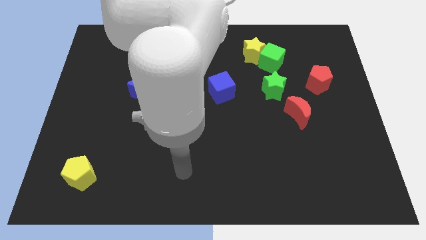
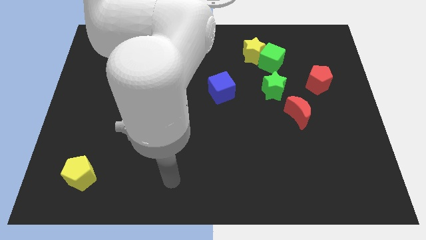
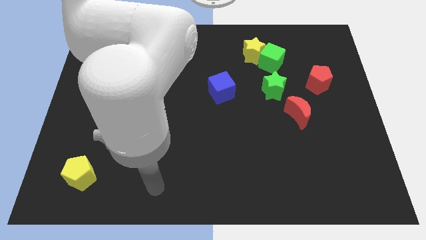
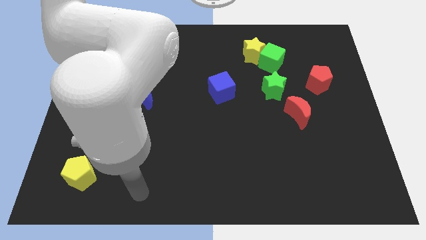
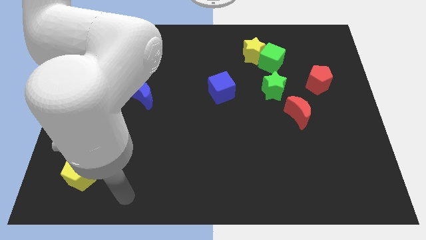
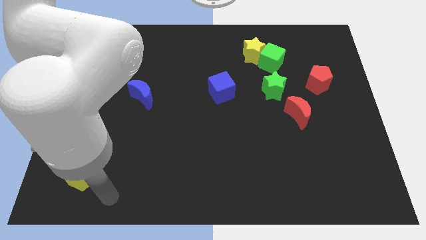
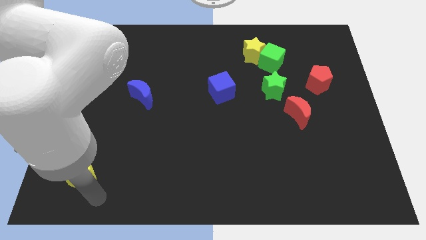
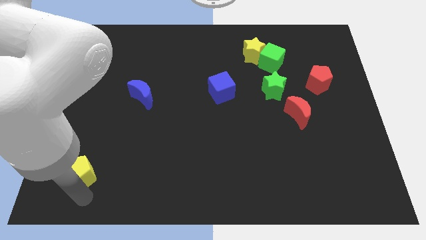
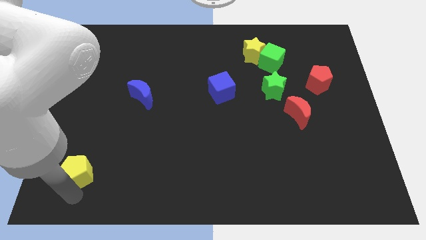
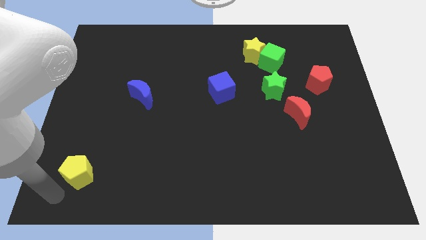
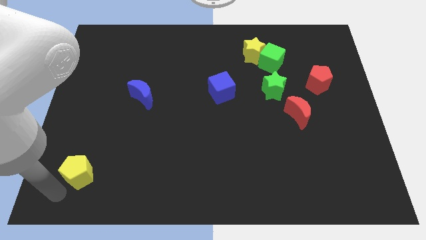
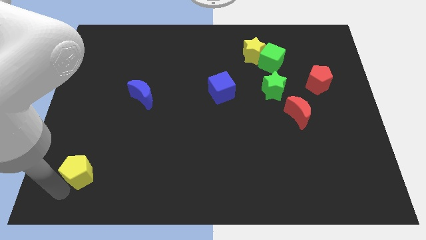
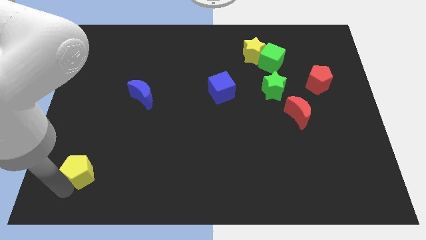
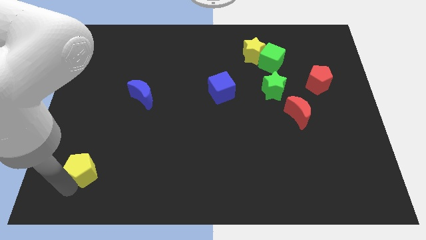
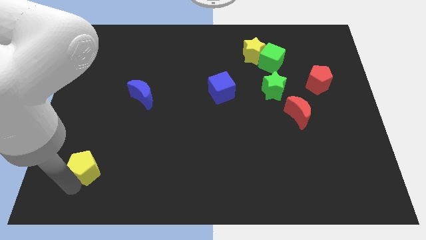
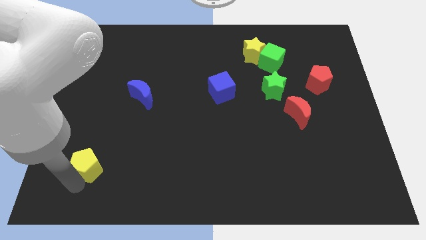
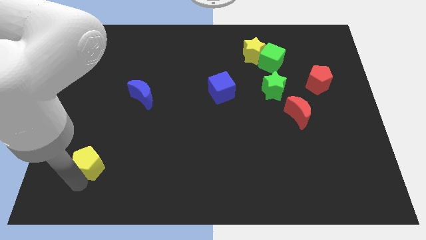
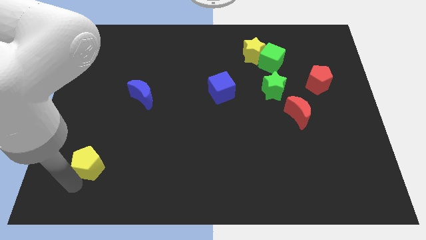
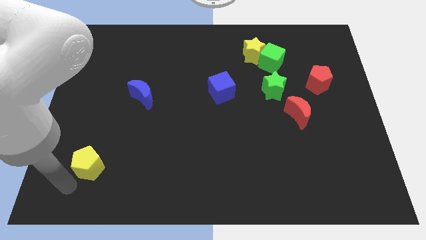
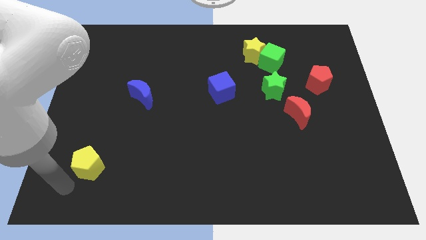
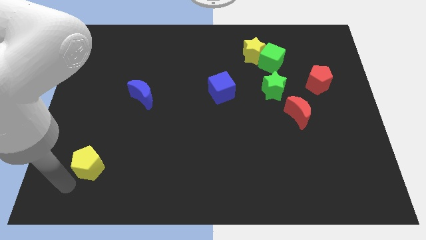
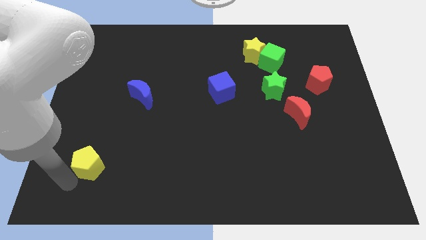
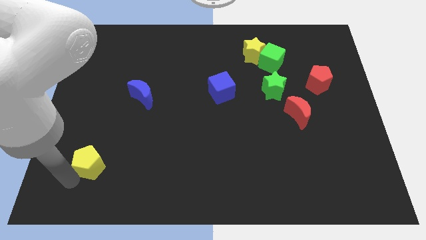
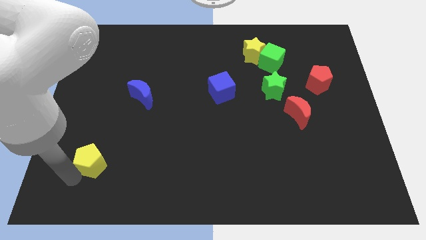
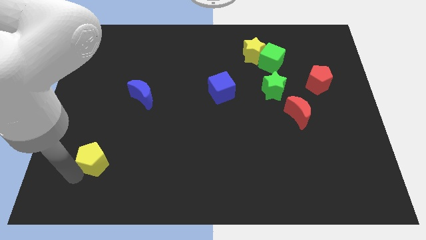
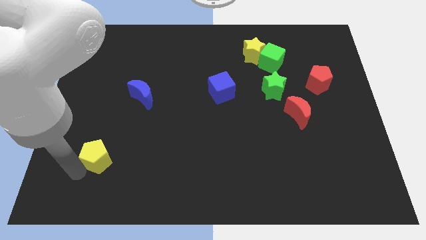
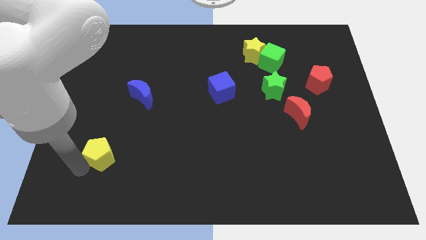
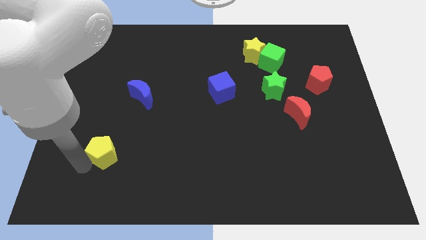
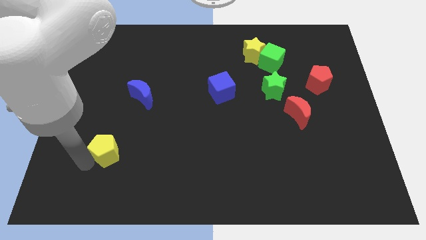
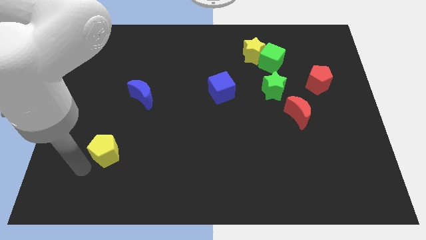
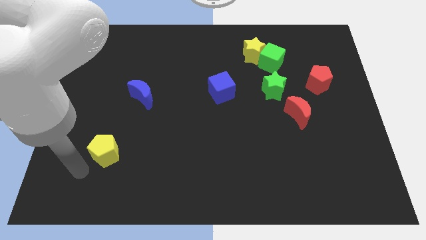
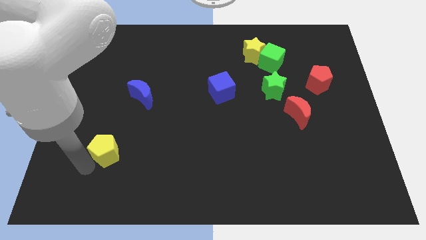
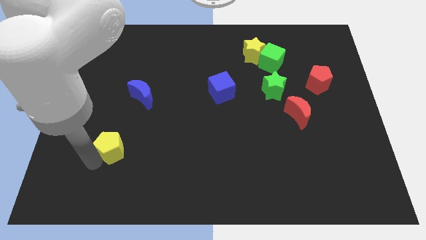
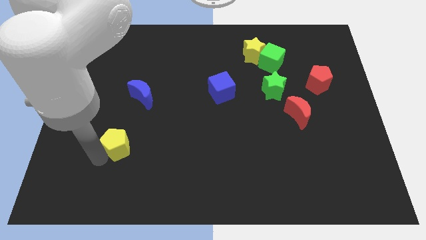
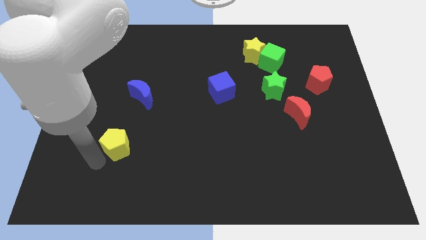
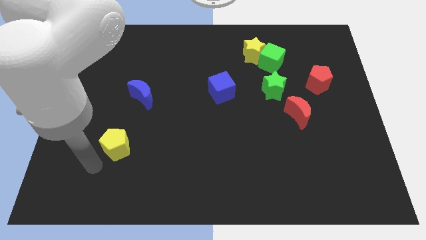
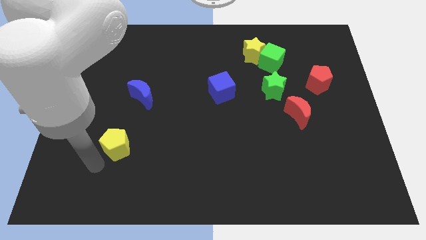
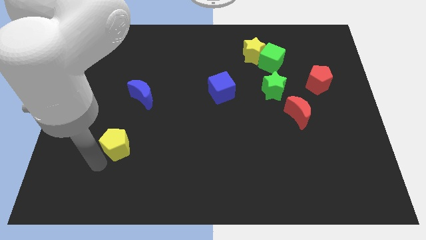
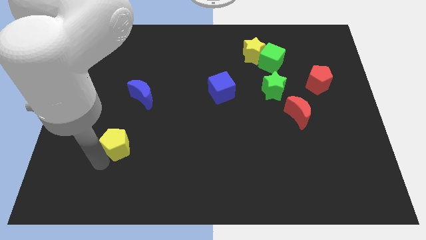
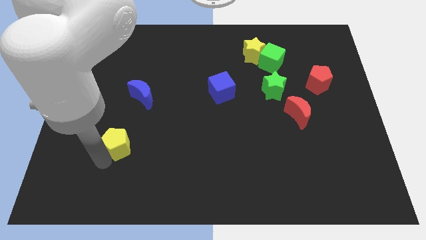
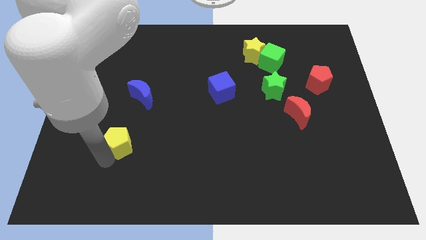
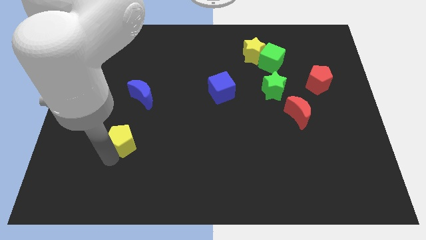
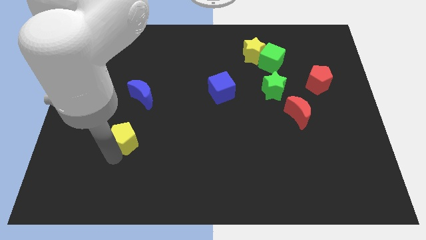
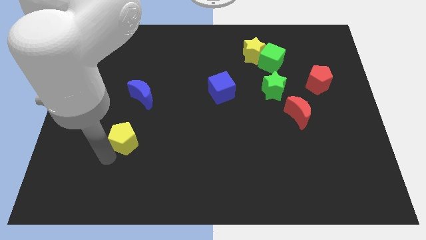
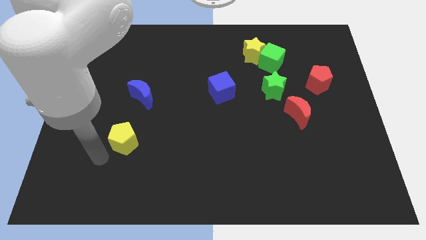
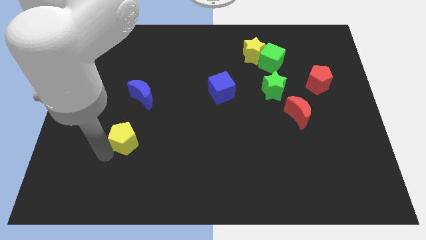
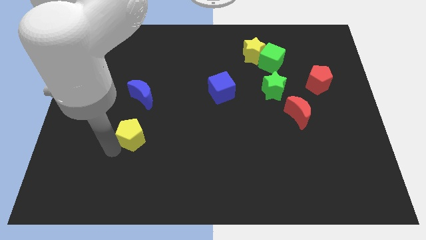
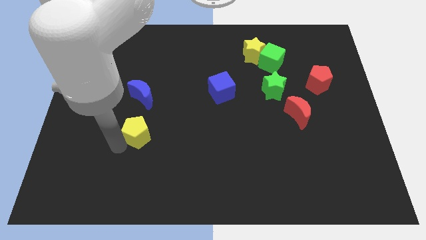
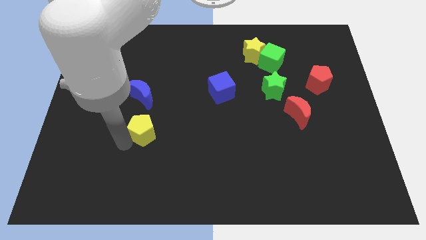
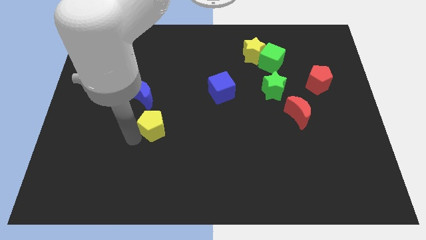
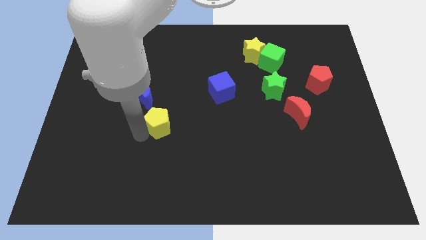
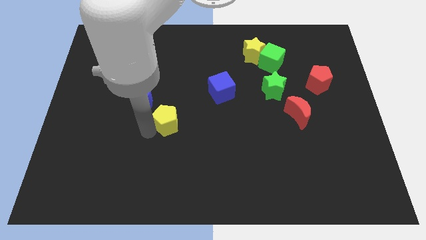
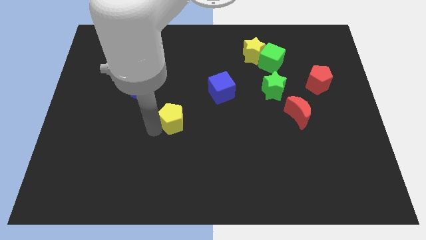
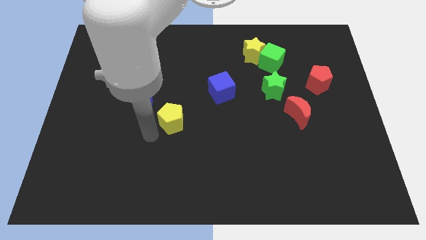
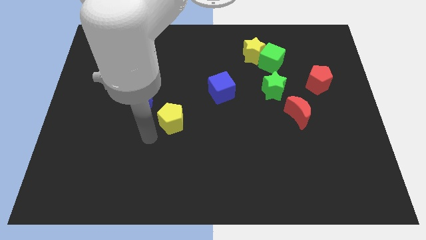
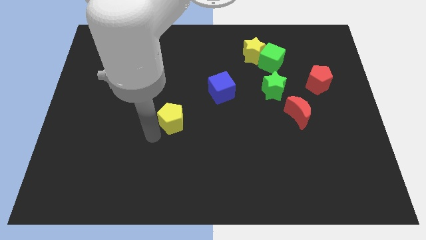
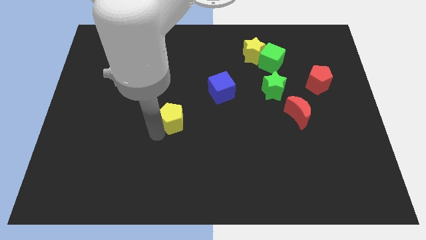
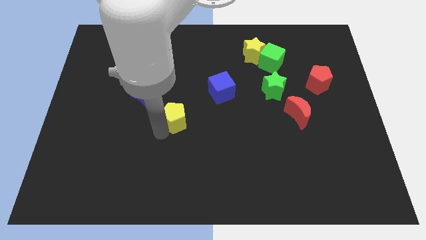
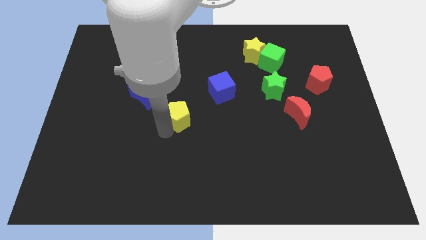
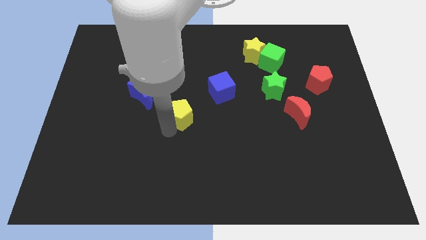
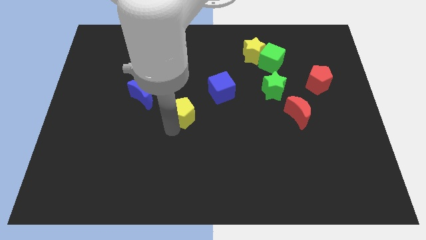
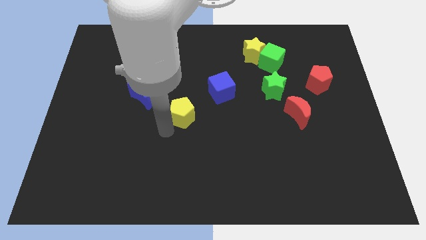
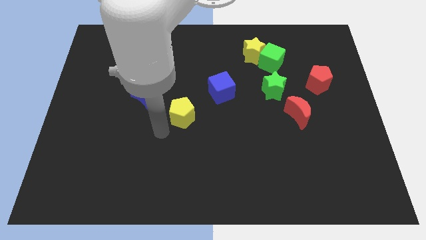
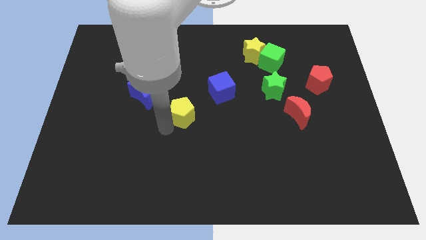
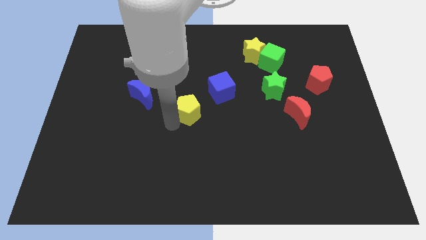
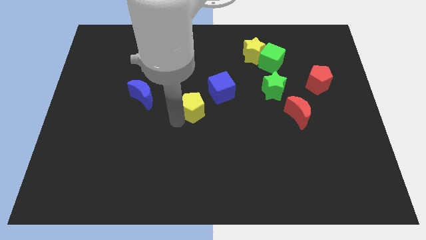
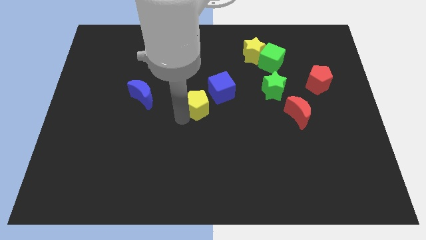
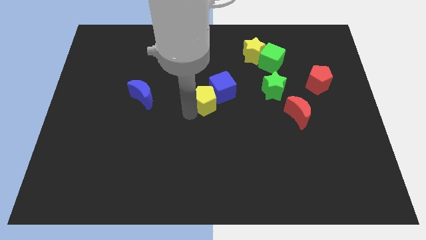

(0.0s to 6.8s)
push the yellow pentagon to the blue cube
